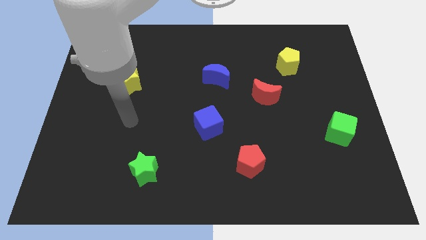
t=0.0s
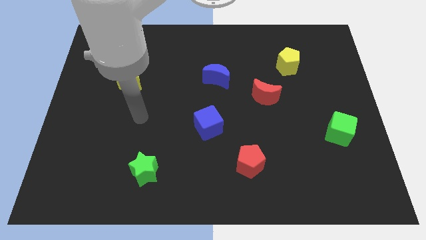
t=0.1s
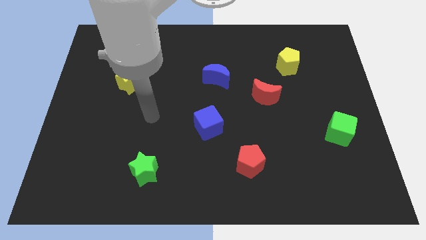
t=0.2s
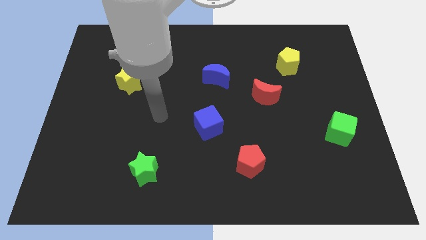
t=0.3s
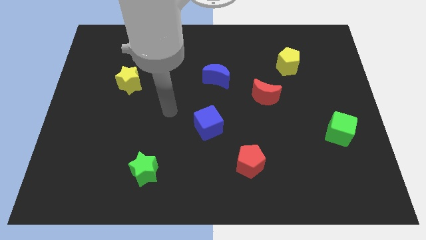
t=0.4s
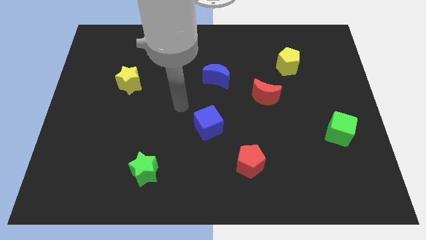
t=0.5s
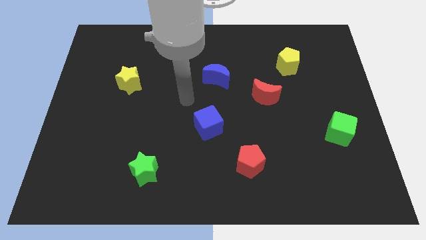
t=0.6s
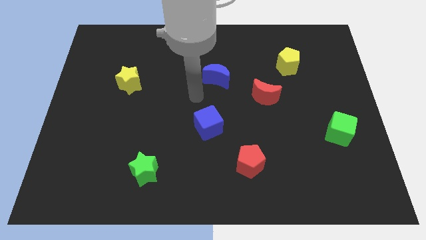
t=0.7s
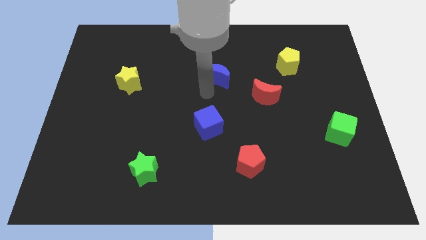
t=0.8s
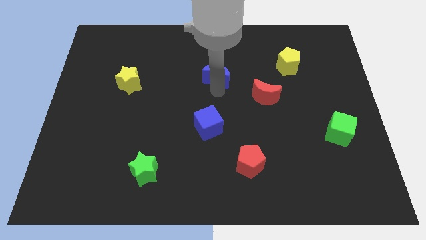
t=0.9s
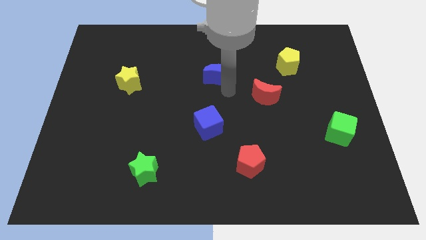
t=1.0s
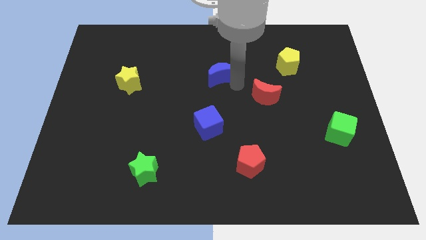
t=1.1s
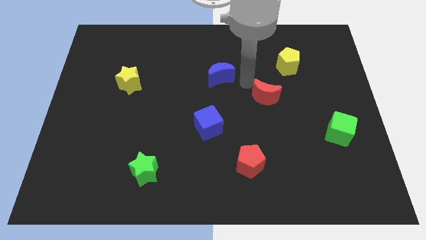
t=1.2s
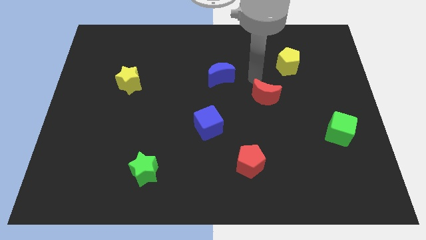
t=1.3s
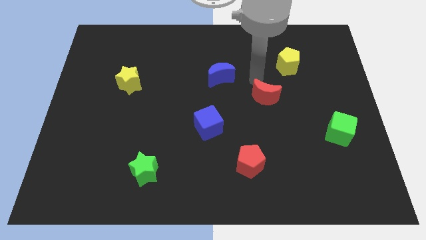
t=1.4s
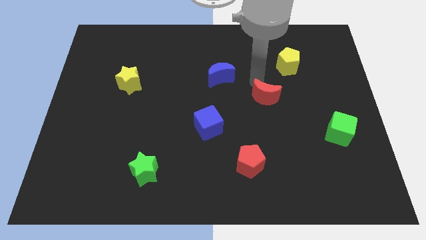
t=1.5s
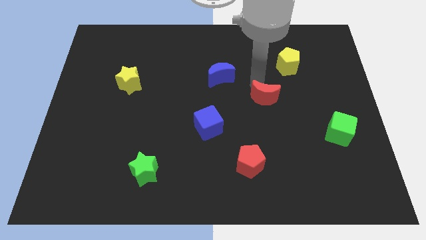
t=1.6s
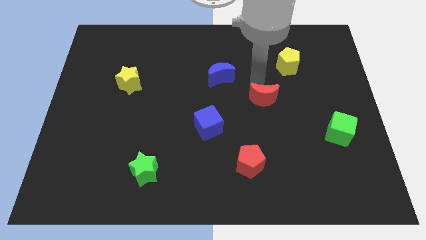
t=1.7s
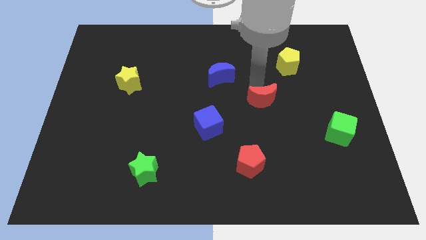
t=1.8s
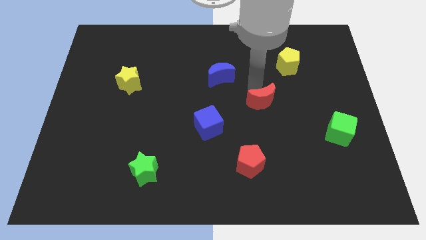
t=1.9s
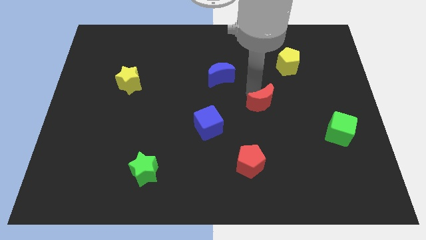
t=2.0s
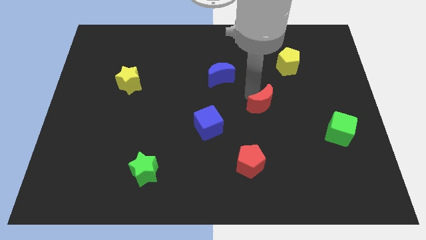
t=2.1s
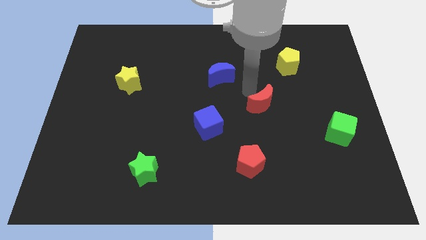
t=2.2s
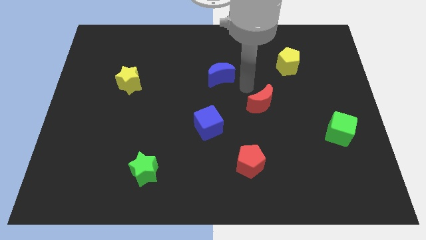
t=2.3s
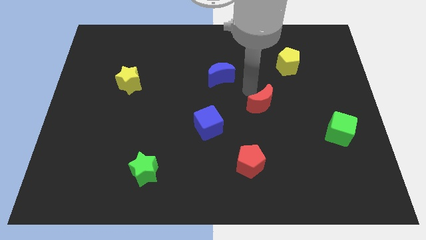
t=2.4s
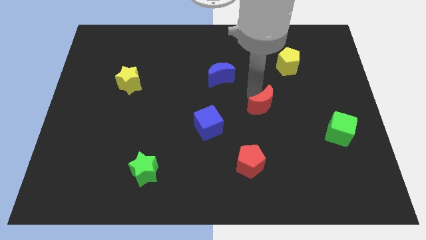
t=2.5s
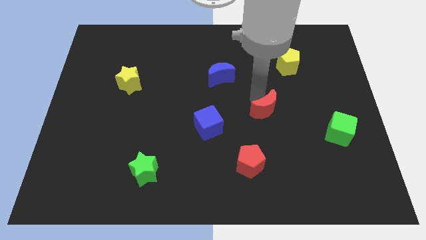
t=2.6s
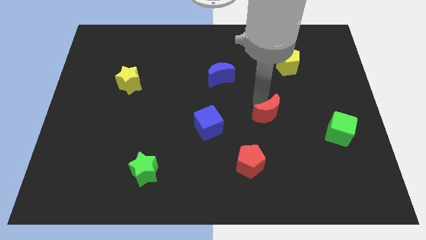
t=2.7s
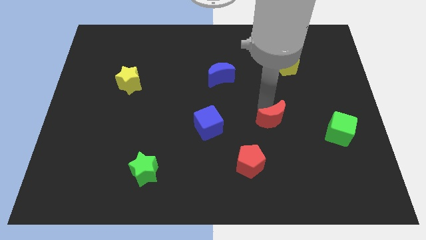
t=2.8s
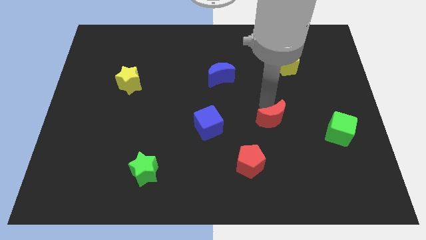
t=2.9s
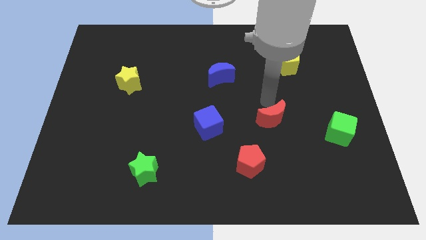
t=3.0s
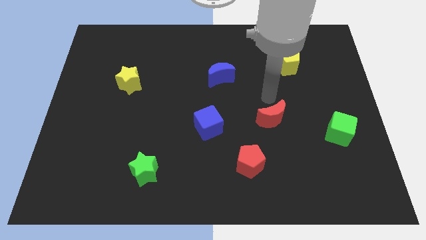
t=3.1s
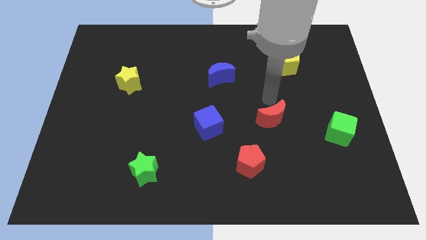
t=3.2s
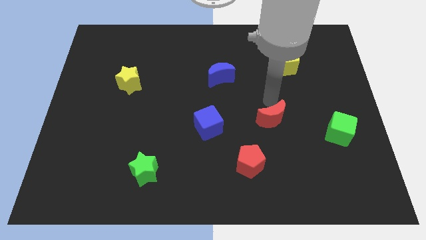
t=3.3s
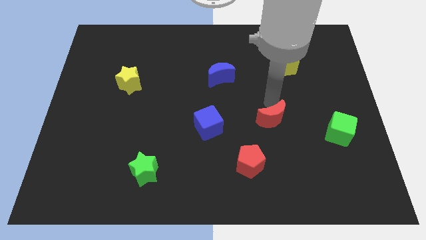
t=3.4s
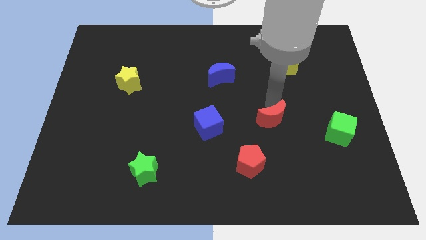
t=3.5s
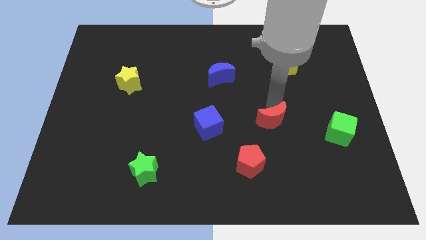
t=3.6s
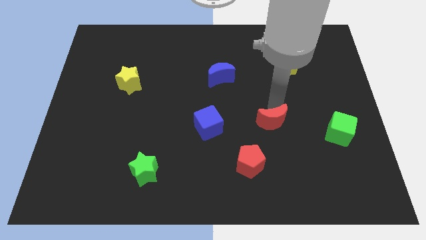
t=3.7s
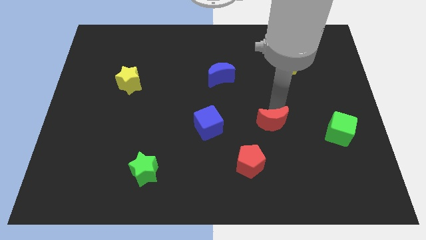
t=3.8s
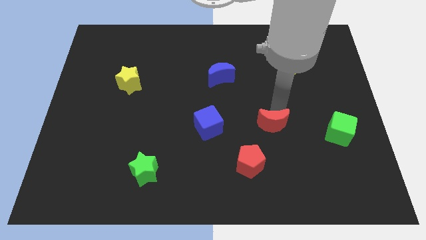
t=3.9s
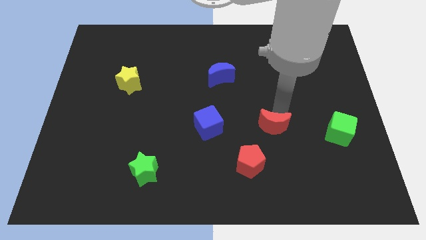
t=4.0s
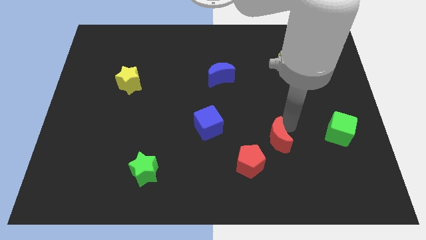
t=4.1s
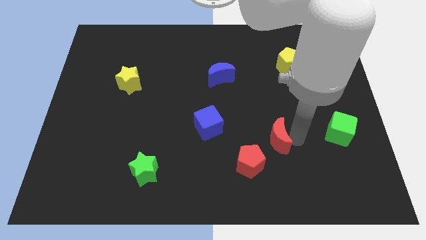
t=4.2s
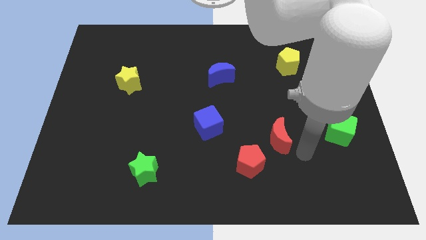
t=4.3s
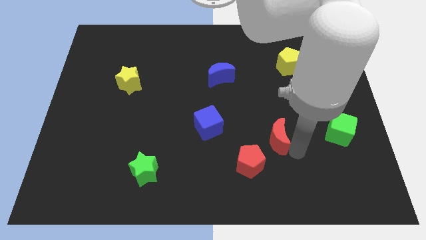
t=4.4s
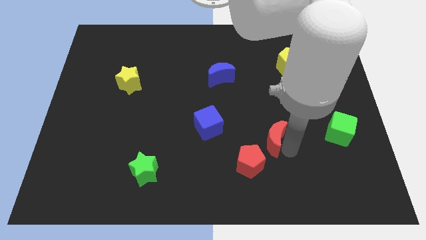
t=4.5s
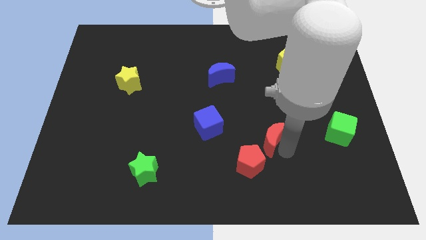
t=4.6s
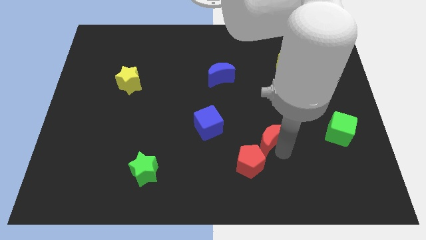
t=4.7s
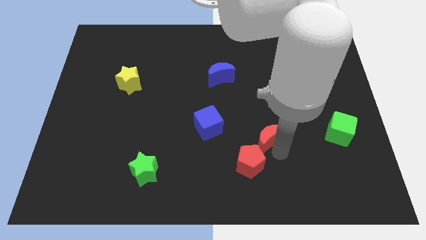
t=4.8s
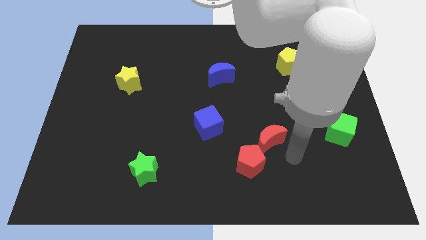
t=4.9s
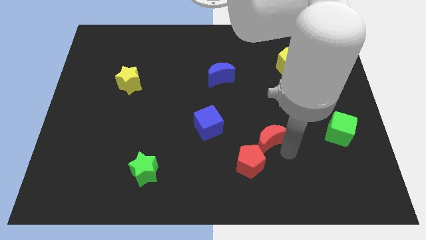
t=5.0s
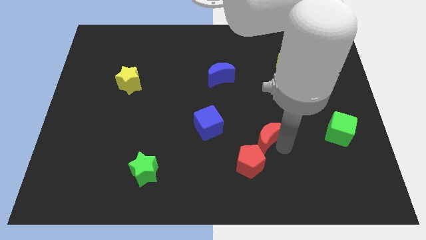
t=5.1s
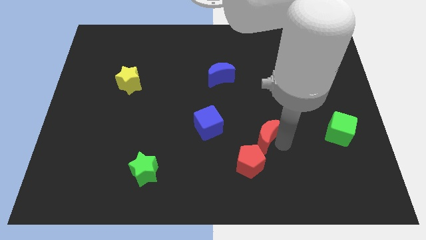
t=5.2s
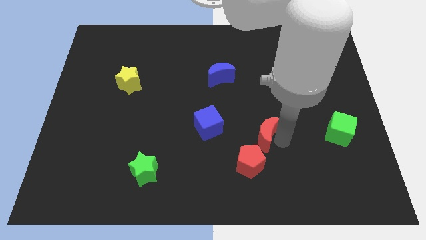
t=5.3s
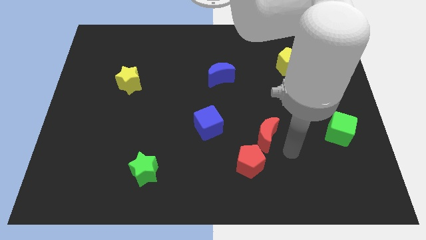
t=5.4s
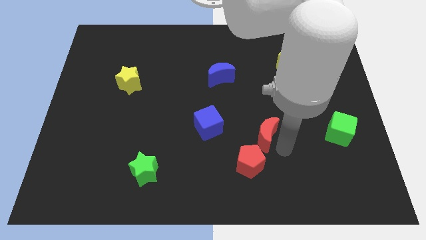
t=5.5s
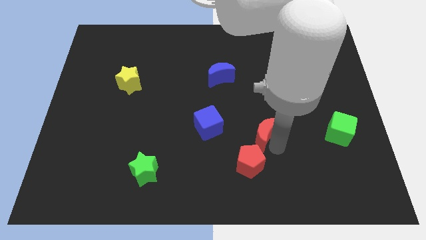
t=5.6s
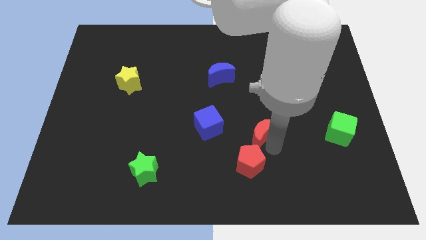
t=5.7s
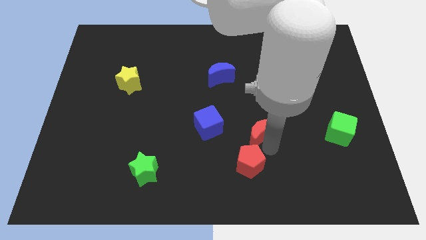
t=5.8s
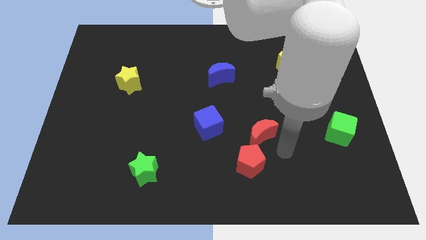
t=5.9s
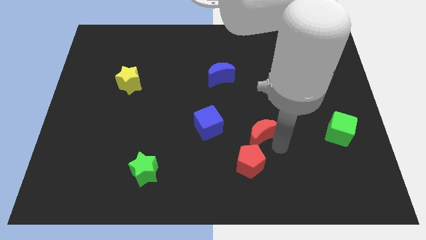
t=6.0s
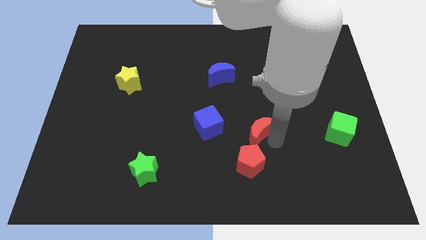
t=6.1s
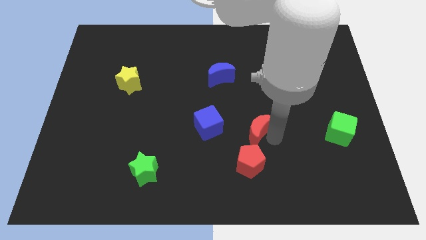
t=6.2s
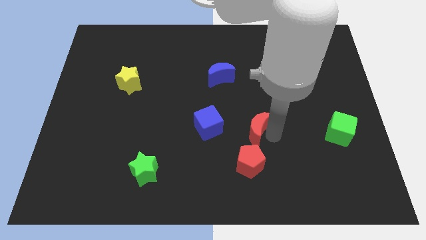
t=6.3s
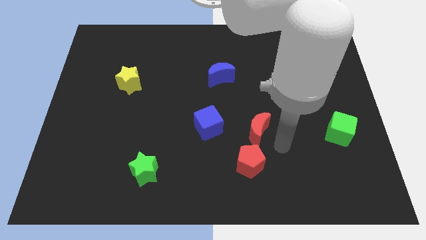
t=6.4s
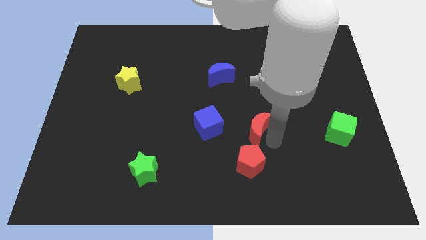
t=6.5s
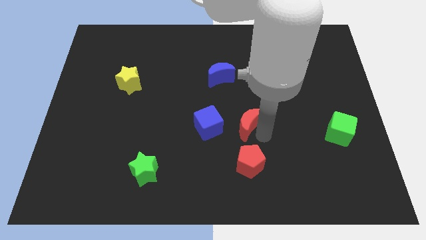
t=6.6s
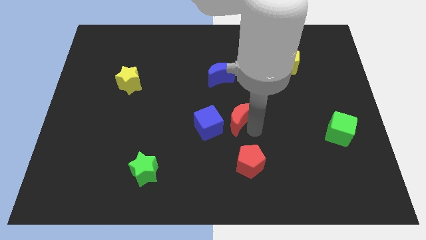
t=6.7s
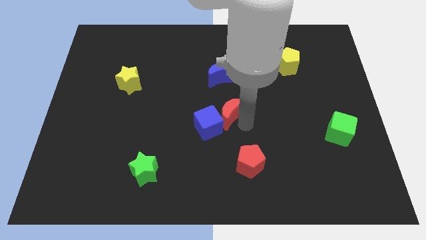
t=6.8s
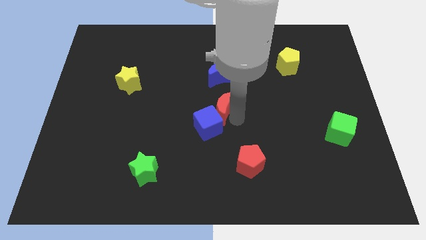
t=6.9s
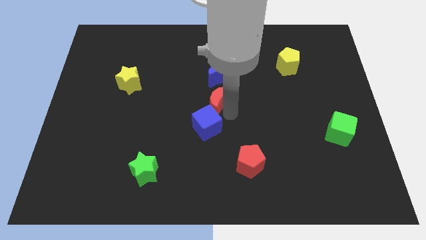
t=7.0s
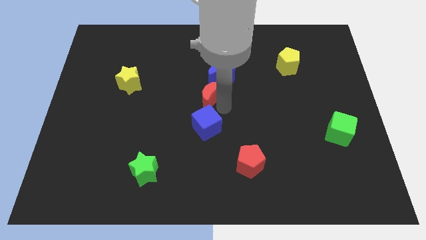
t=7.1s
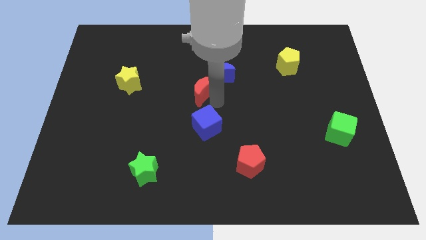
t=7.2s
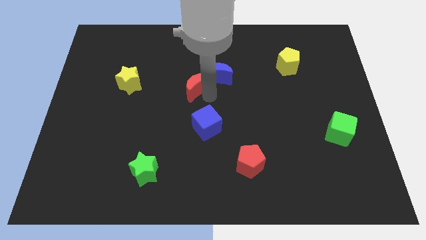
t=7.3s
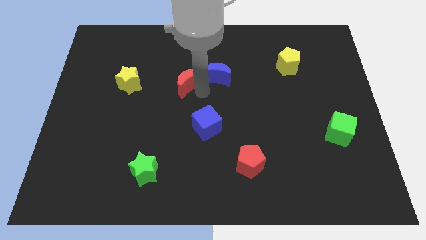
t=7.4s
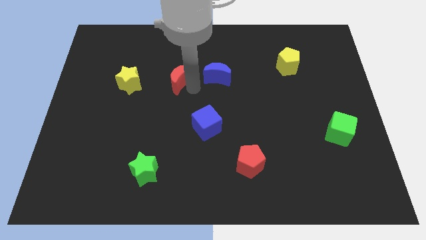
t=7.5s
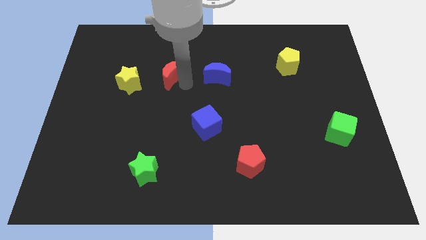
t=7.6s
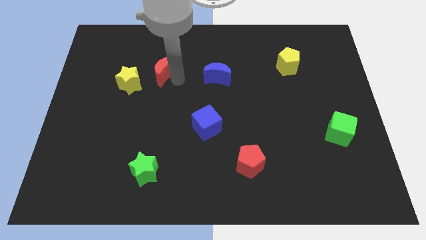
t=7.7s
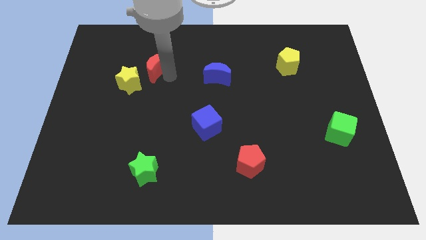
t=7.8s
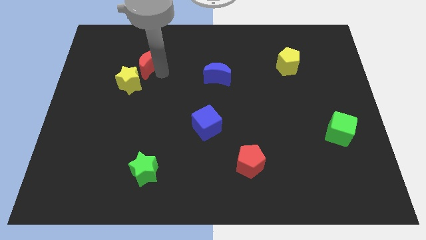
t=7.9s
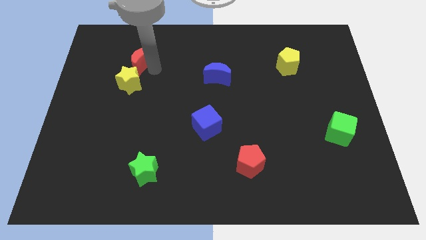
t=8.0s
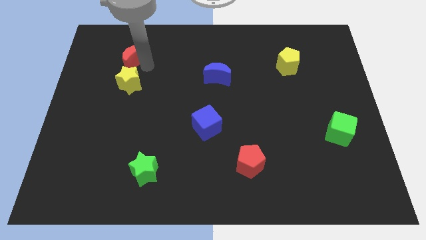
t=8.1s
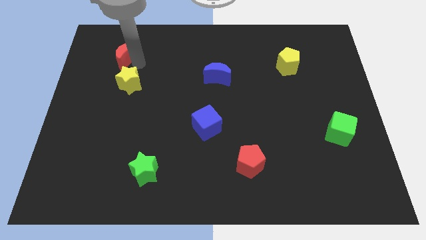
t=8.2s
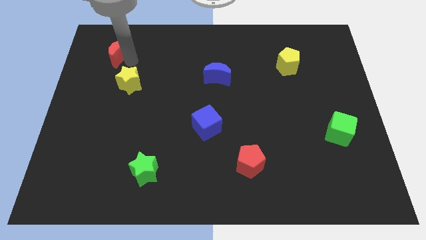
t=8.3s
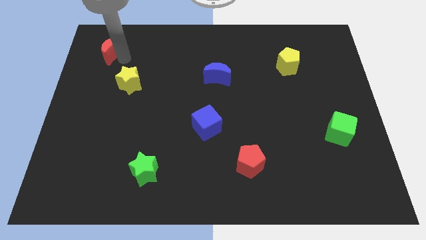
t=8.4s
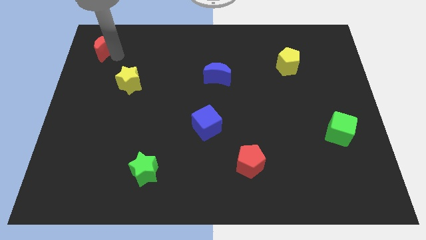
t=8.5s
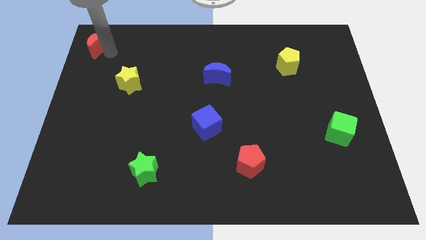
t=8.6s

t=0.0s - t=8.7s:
put the red moon to the top left corner
